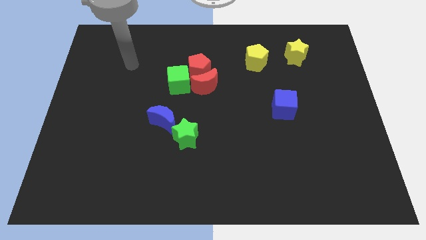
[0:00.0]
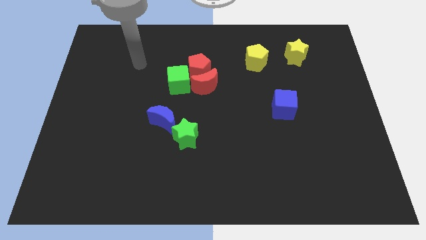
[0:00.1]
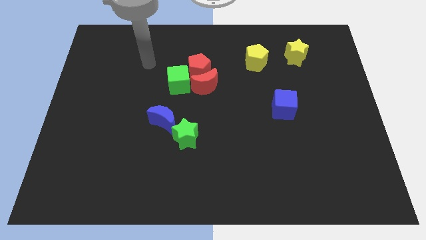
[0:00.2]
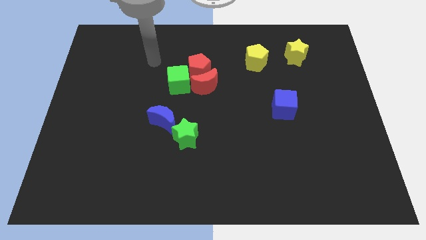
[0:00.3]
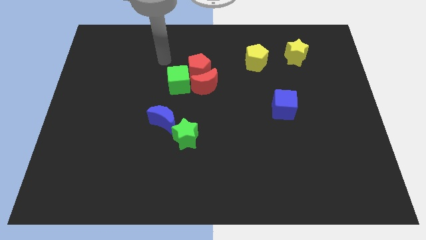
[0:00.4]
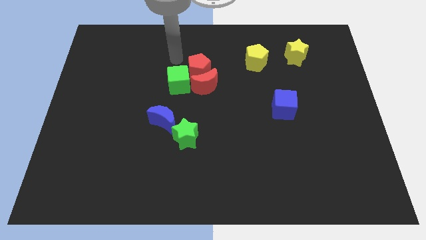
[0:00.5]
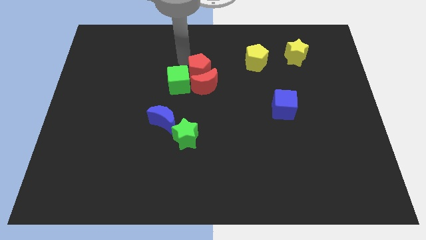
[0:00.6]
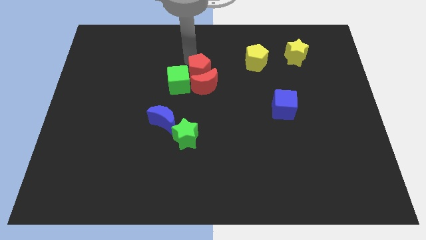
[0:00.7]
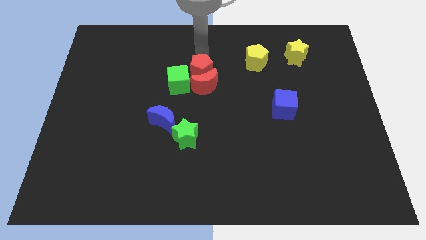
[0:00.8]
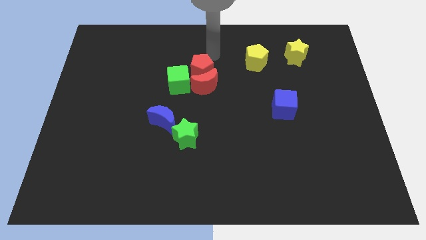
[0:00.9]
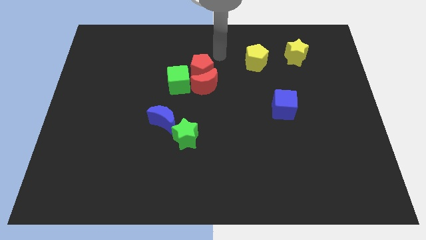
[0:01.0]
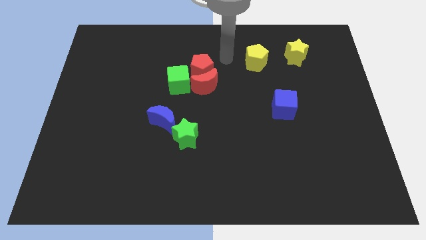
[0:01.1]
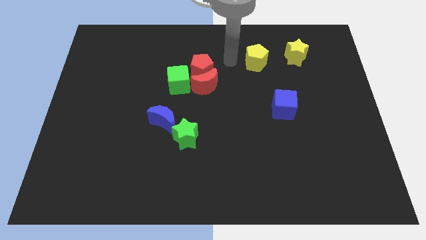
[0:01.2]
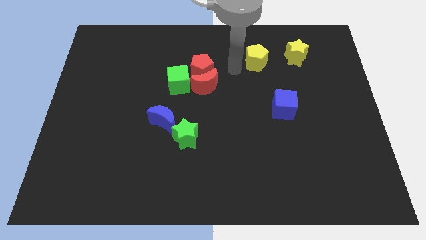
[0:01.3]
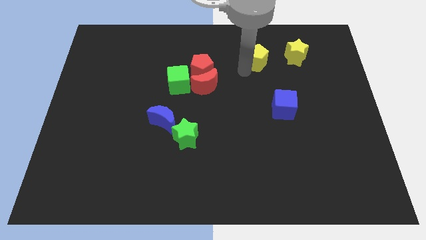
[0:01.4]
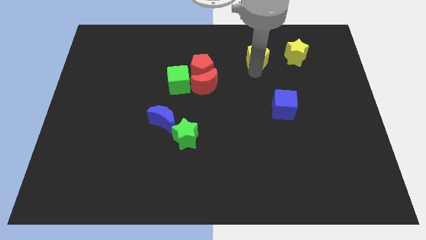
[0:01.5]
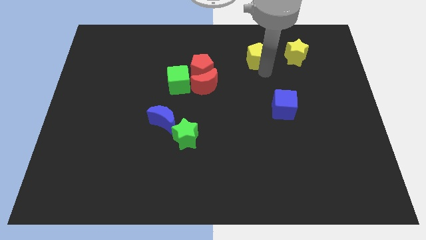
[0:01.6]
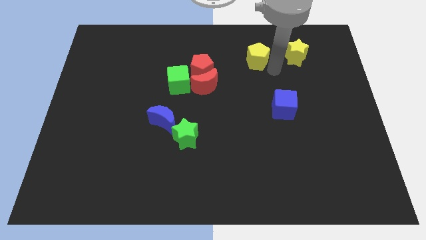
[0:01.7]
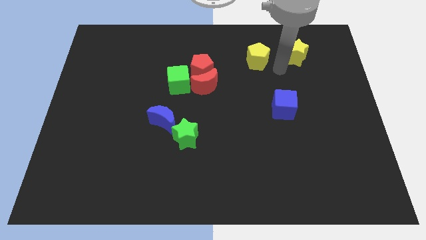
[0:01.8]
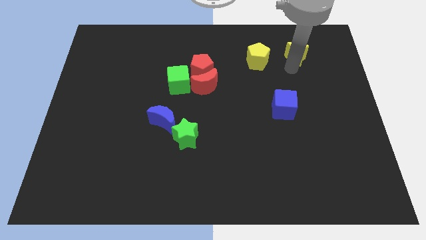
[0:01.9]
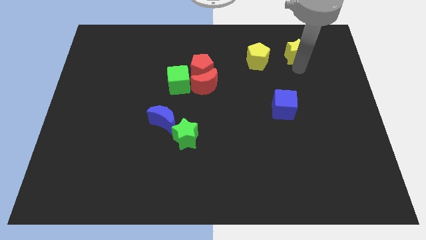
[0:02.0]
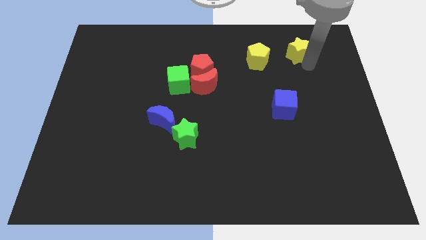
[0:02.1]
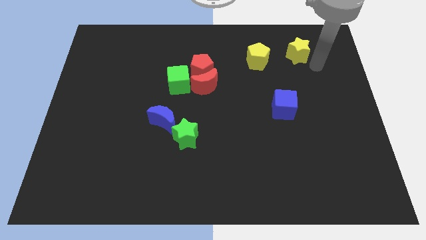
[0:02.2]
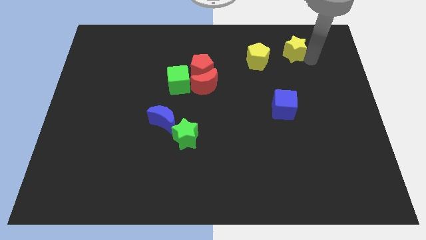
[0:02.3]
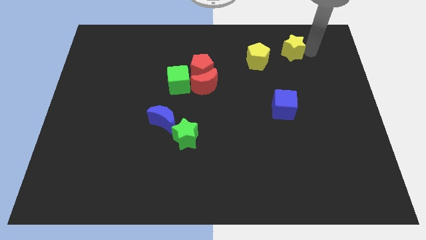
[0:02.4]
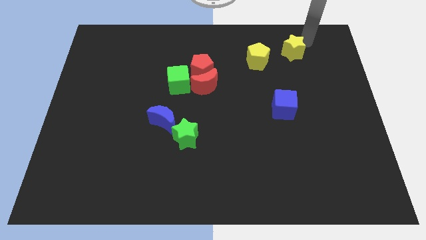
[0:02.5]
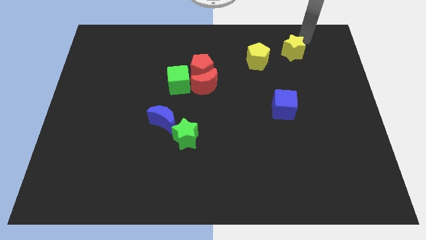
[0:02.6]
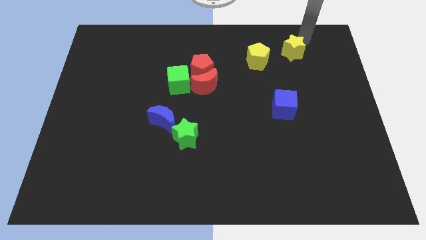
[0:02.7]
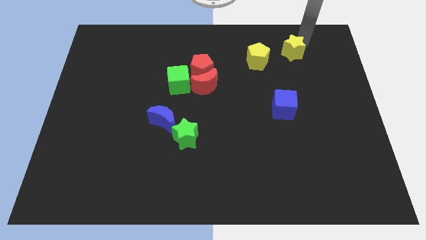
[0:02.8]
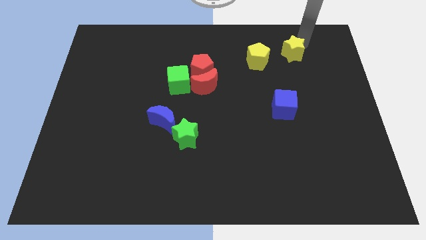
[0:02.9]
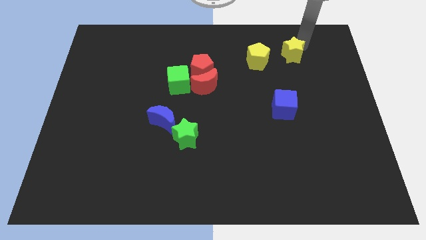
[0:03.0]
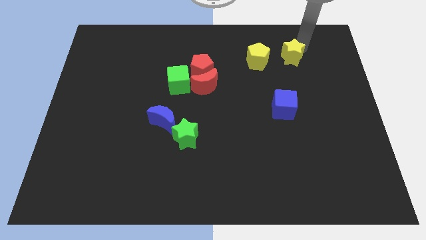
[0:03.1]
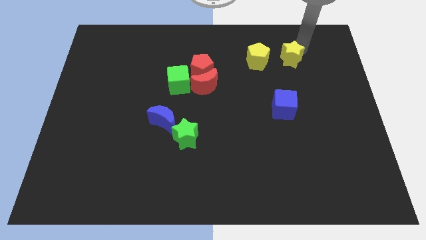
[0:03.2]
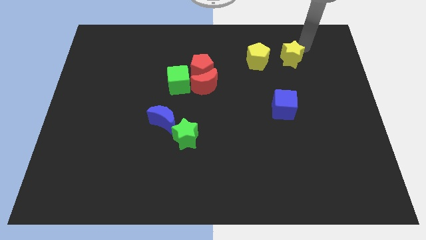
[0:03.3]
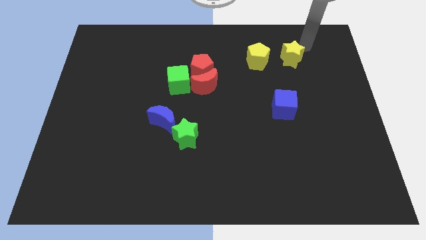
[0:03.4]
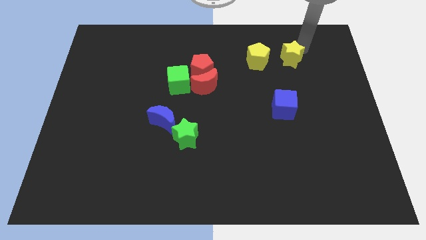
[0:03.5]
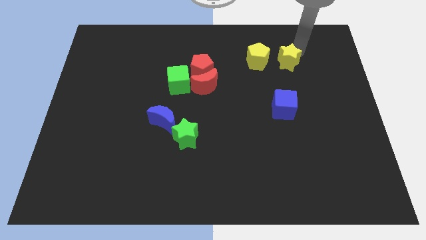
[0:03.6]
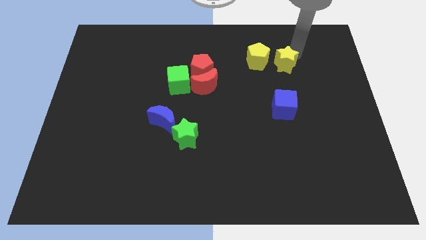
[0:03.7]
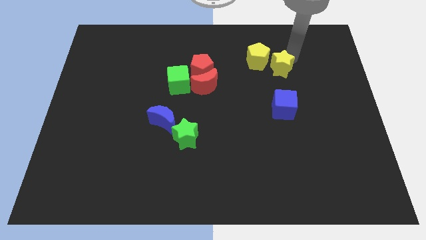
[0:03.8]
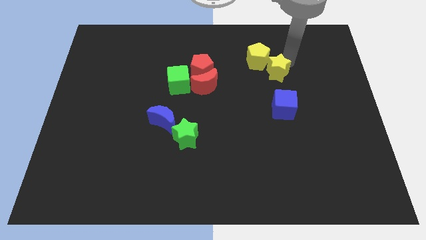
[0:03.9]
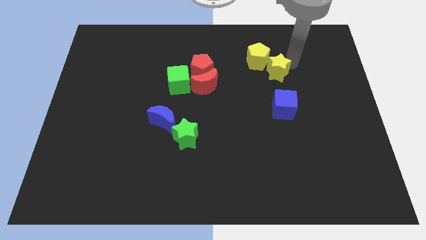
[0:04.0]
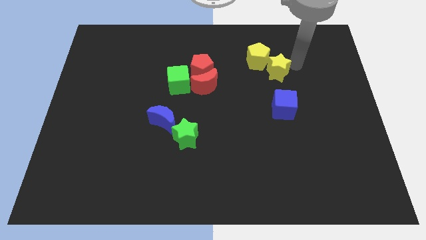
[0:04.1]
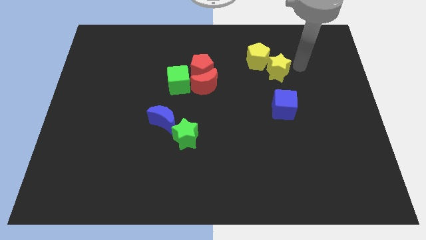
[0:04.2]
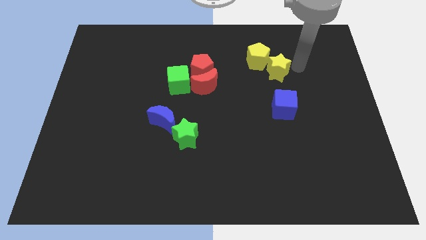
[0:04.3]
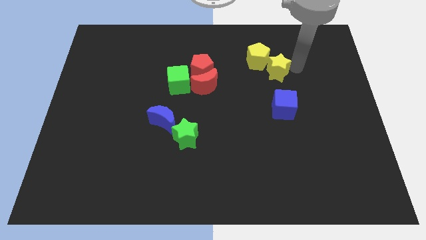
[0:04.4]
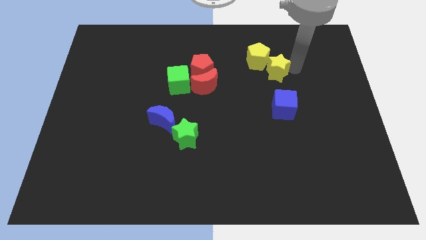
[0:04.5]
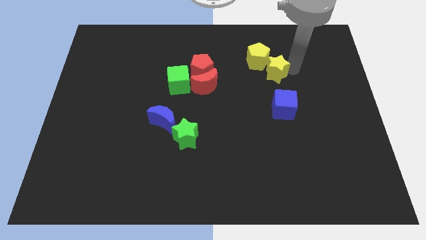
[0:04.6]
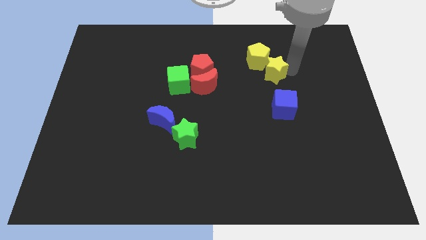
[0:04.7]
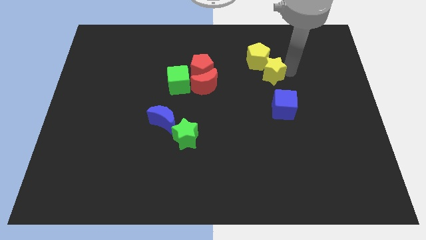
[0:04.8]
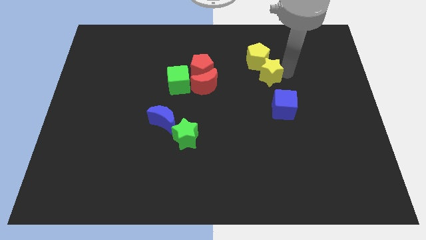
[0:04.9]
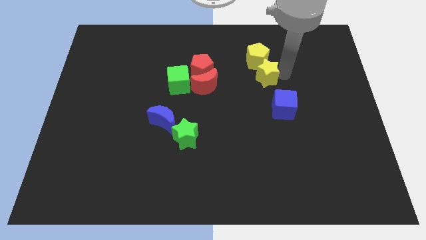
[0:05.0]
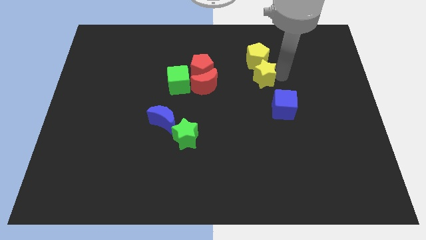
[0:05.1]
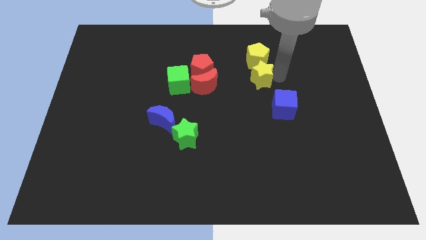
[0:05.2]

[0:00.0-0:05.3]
move the yellow star to the bottom left side of the yellow pentagon
